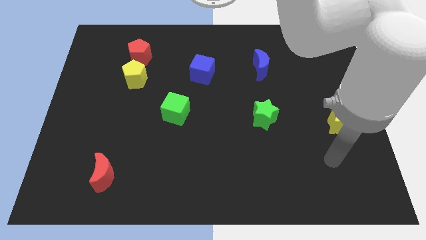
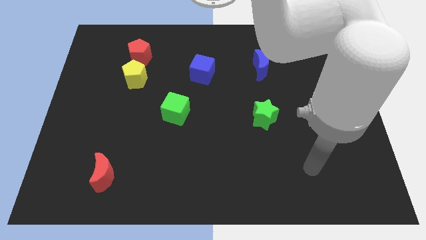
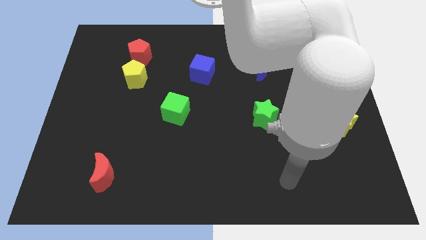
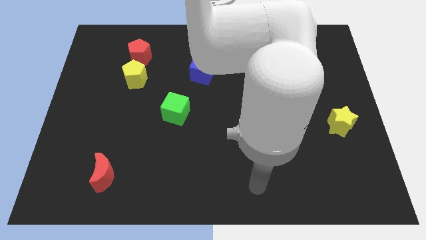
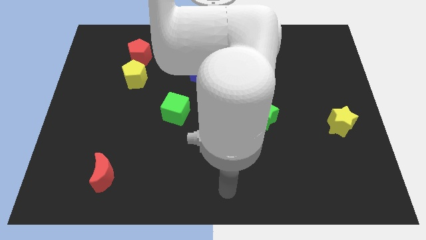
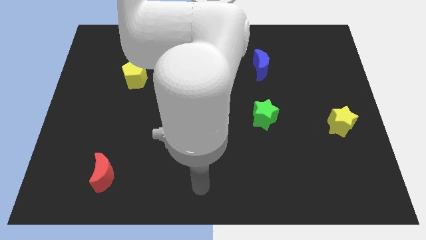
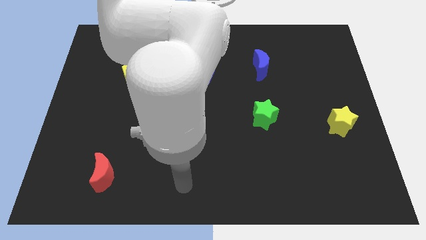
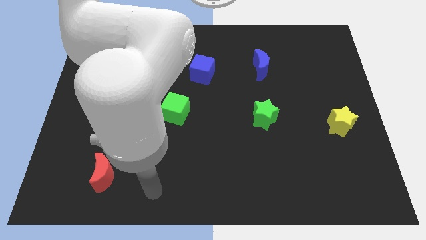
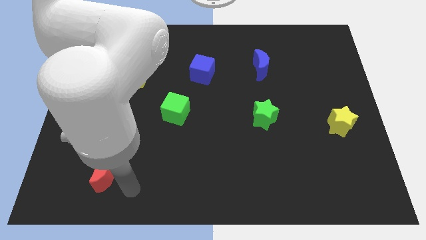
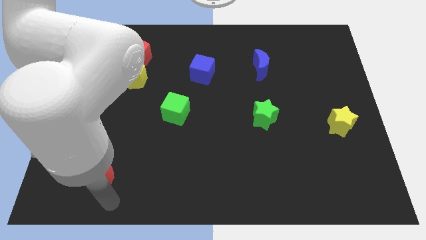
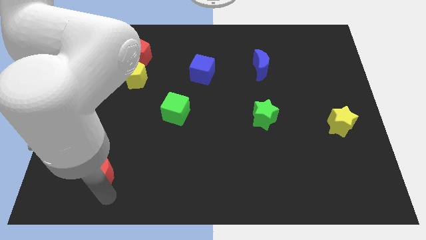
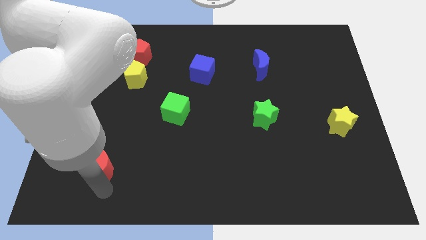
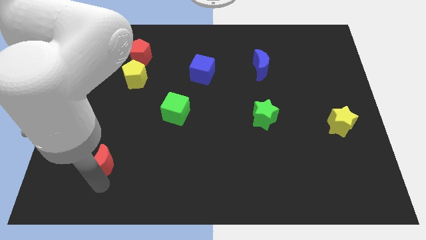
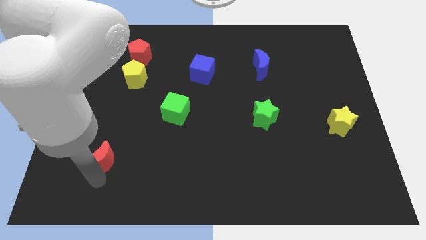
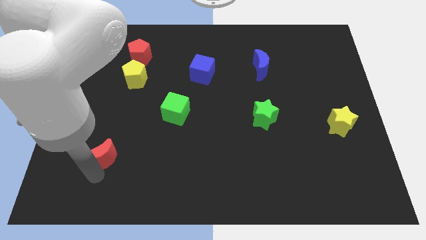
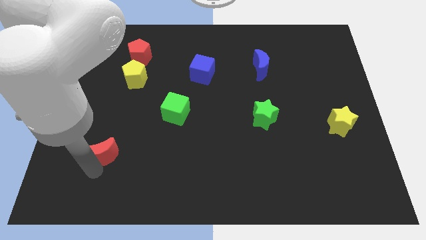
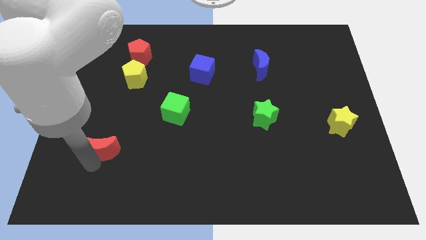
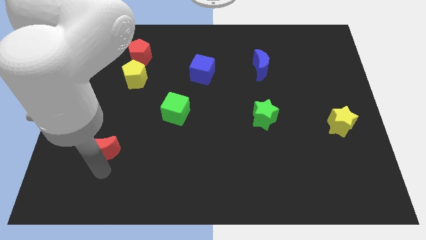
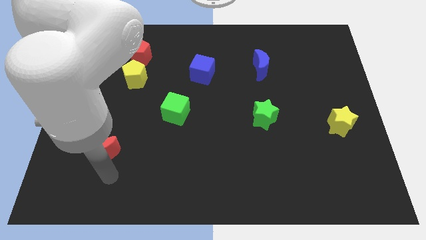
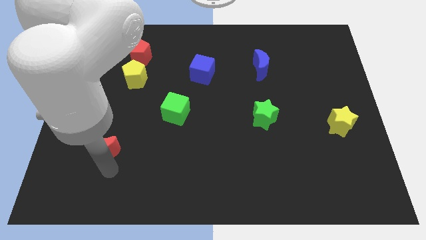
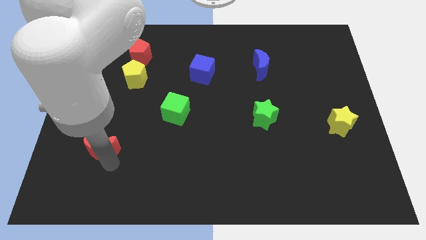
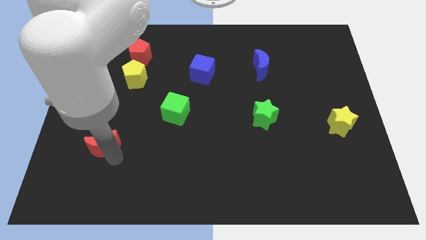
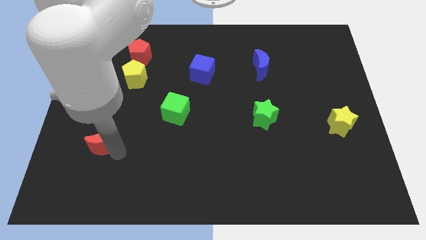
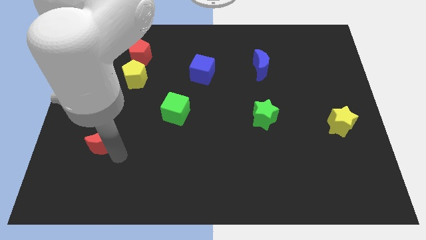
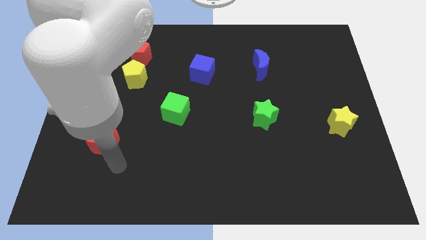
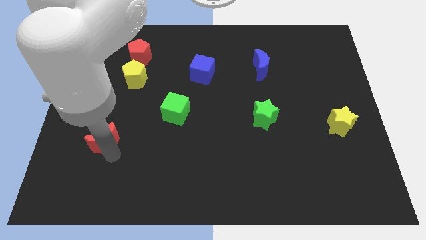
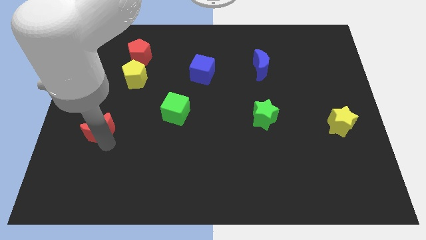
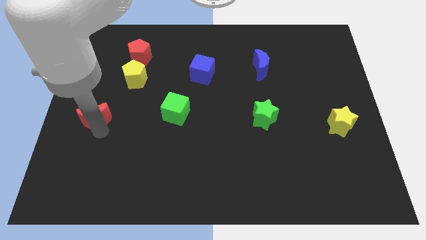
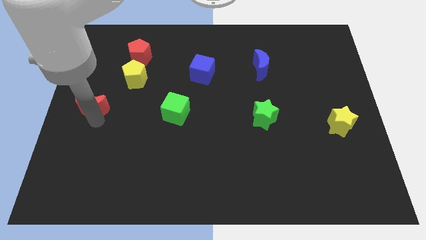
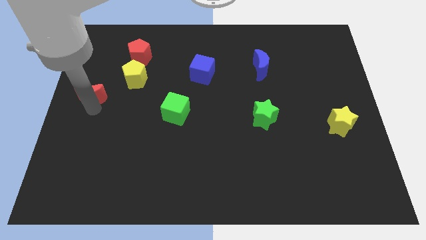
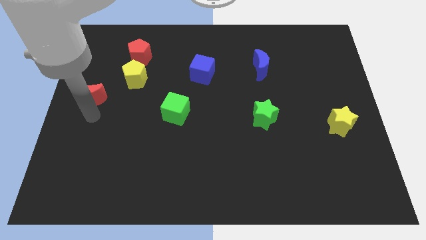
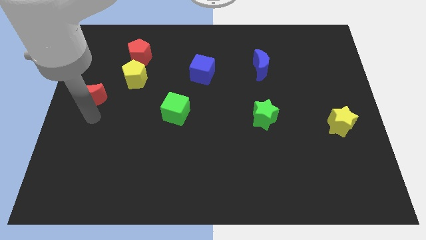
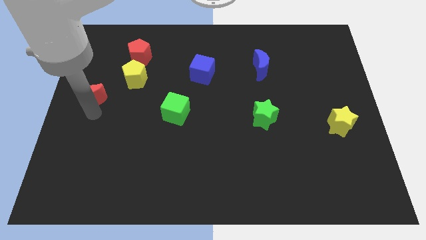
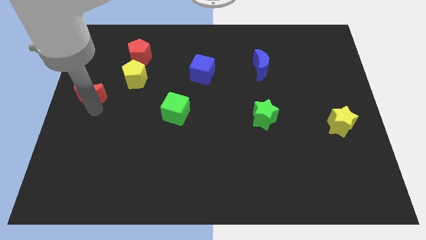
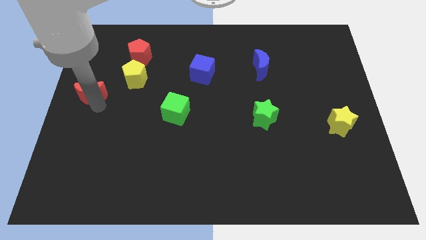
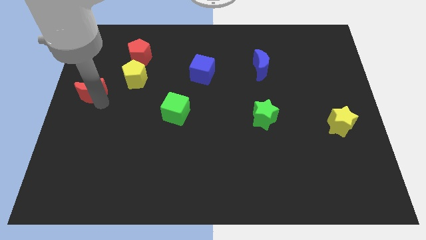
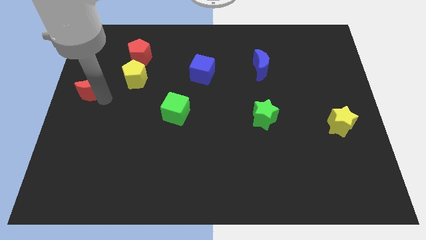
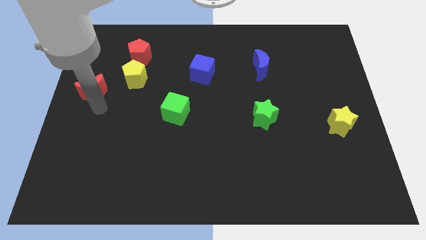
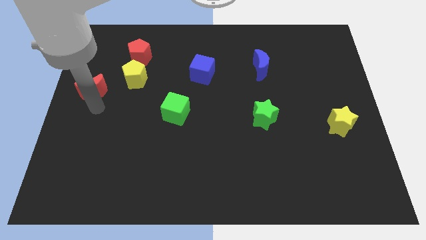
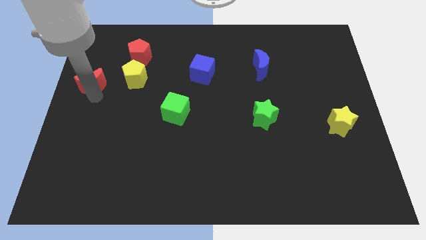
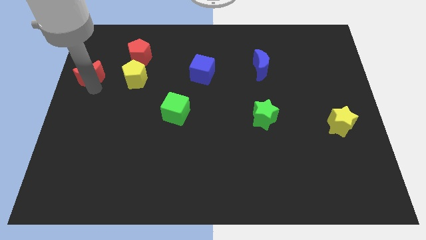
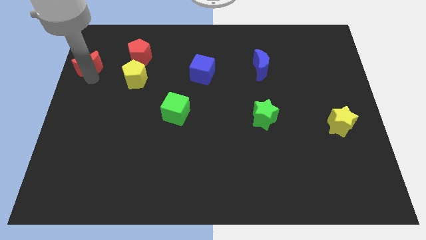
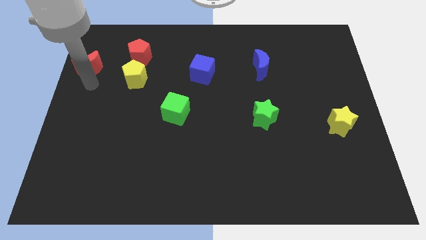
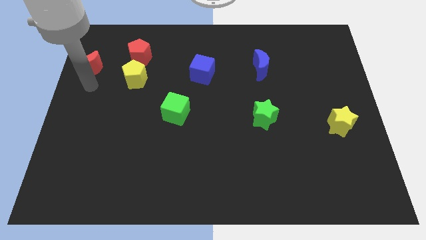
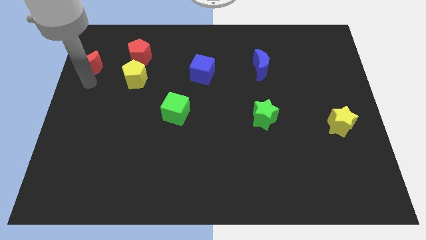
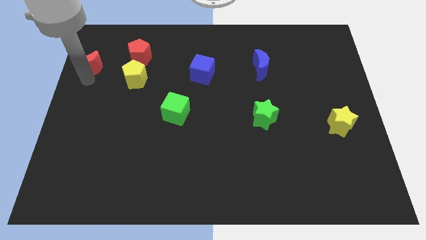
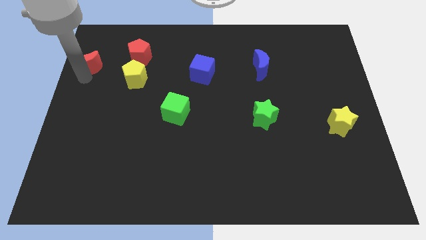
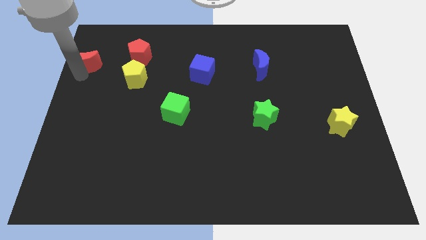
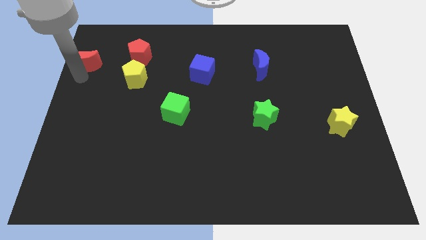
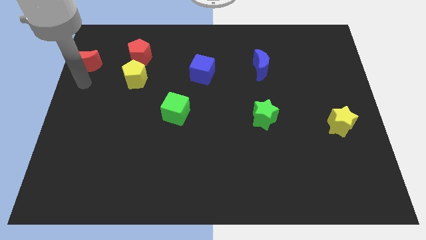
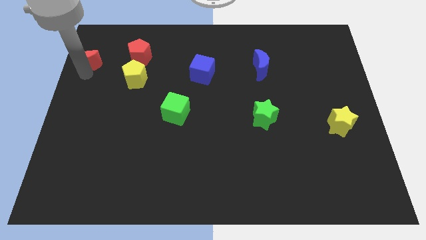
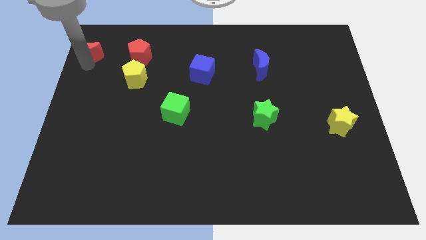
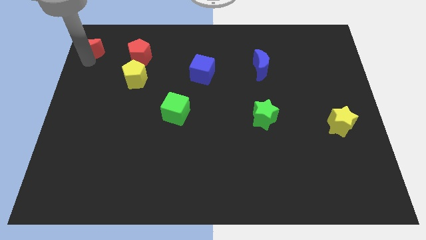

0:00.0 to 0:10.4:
push the red moon to the top left of the board

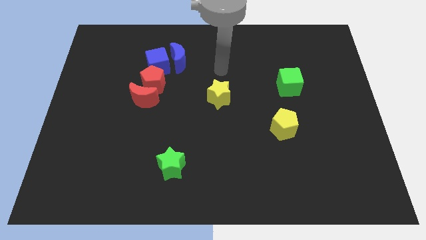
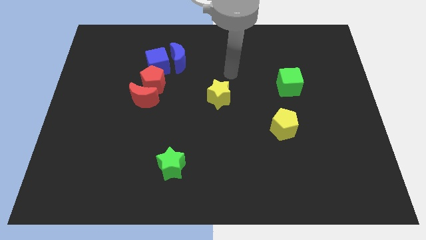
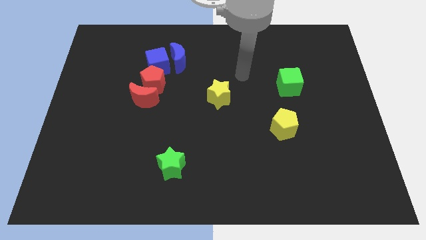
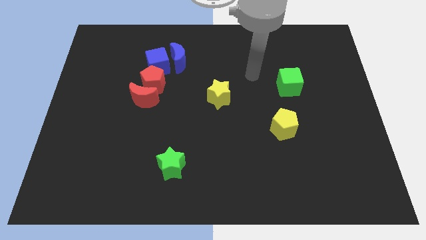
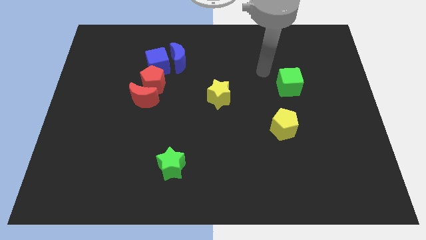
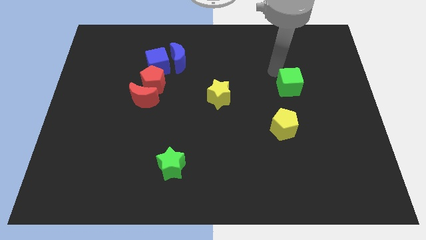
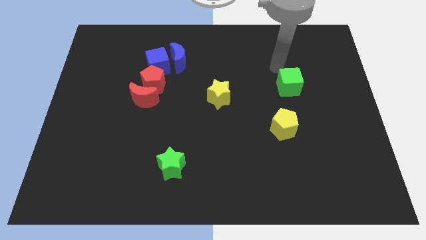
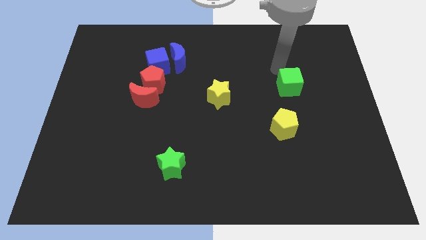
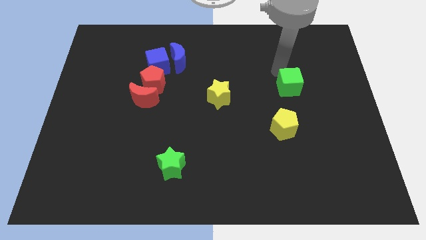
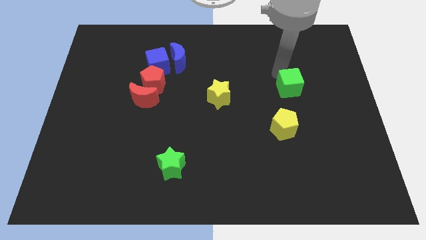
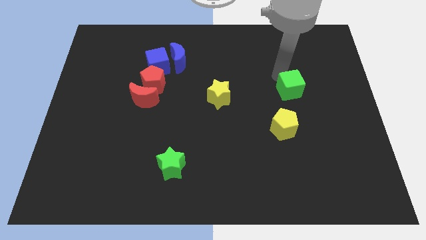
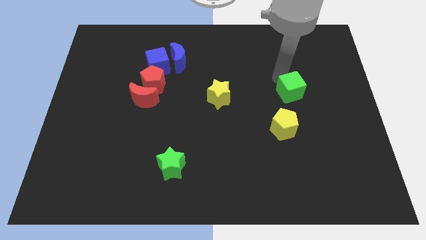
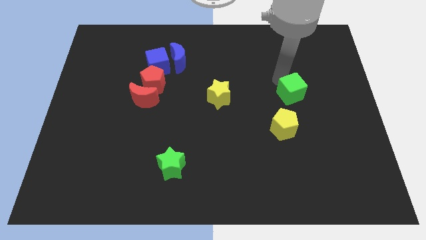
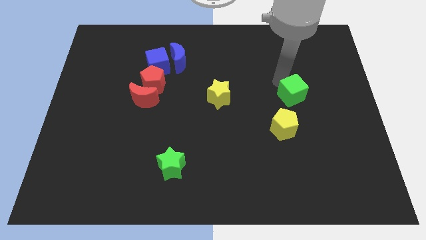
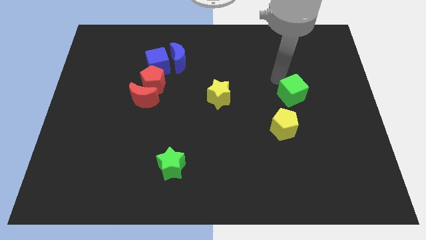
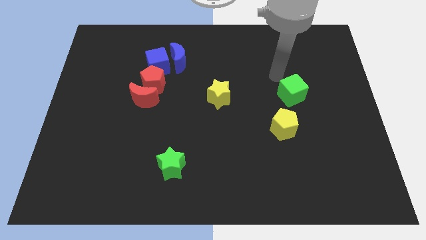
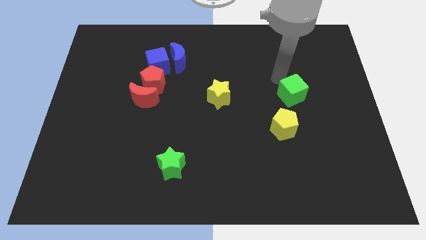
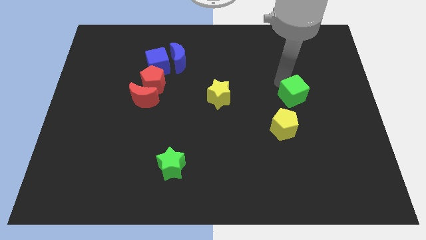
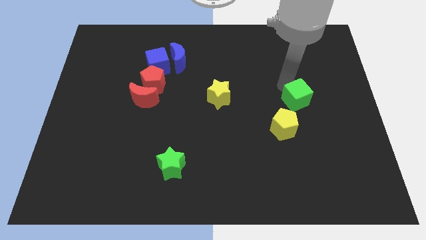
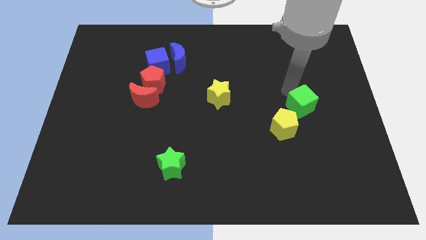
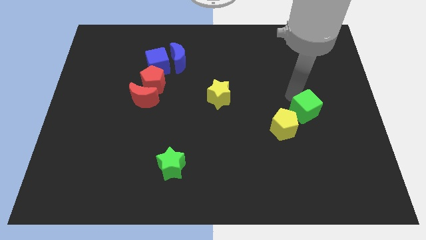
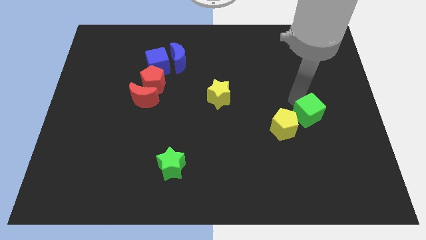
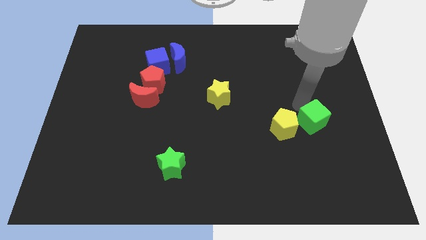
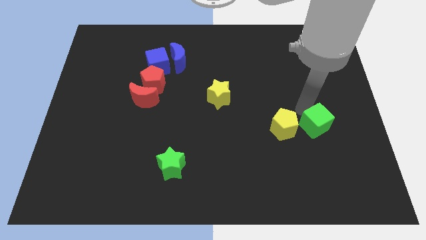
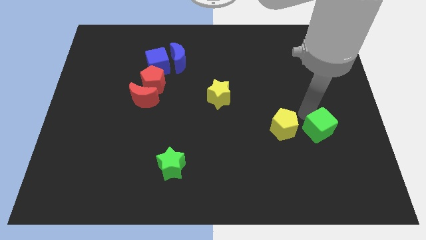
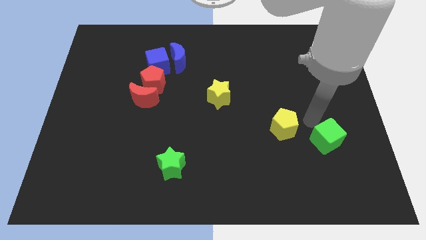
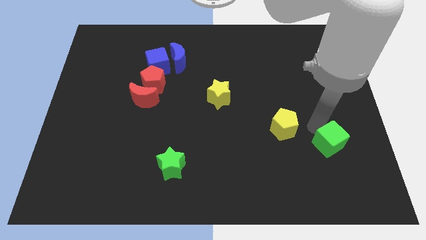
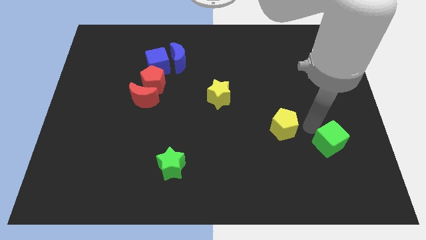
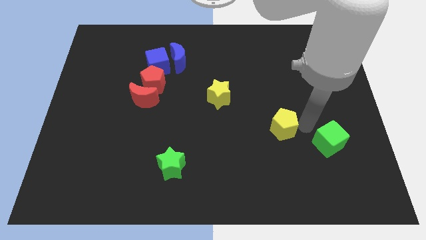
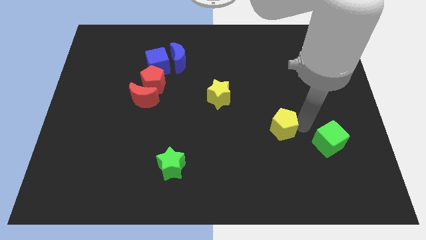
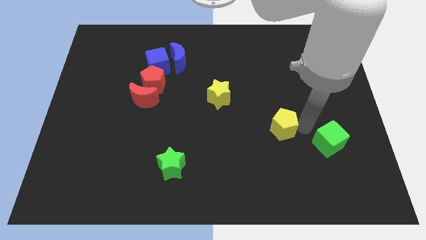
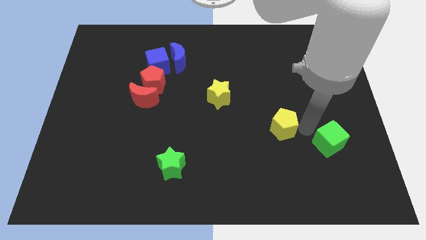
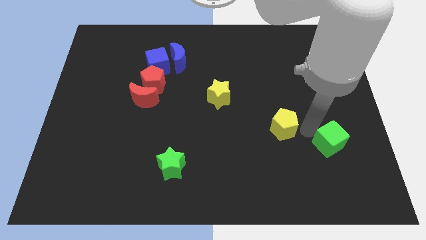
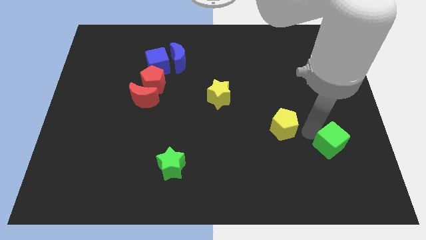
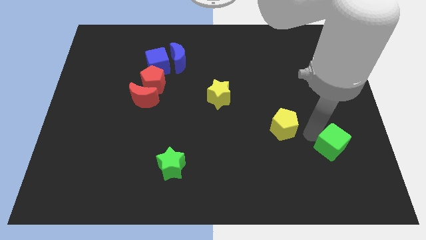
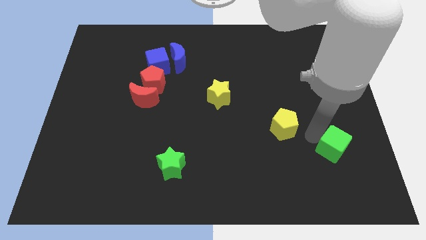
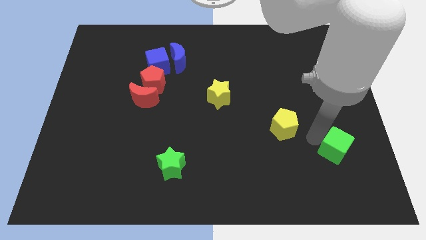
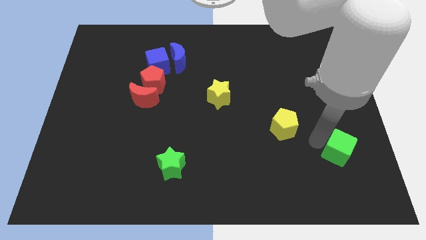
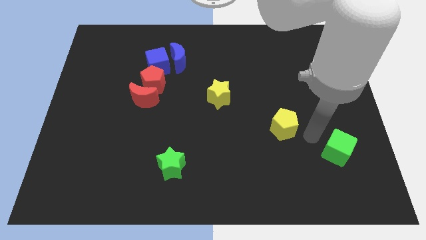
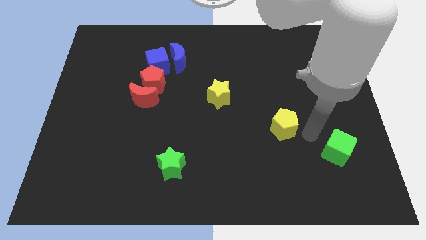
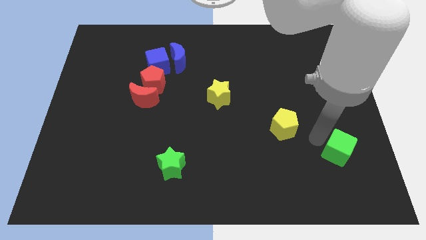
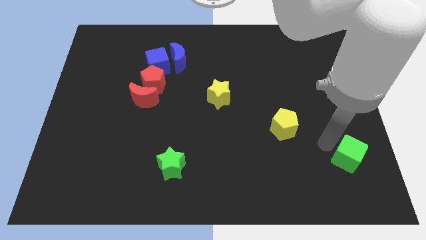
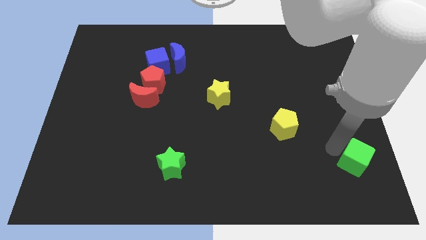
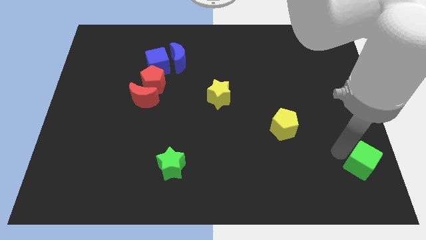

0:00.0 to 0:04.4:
put the green cube to the lower right corner
